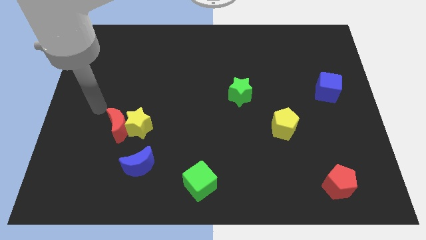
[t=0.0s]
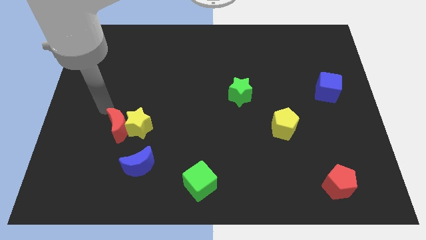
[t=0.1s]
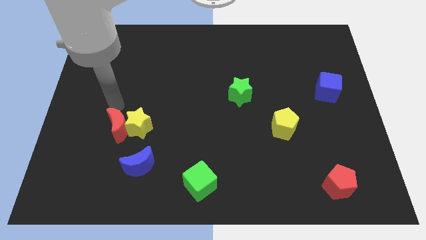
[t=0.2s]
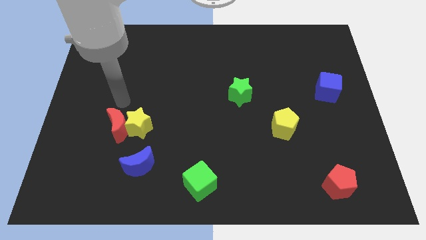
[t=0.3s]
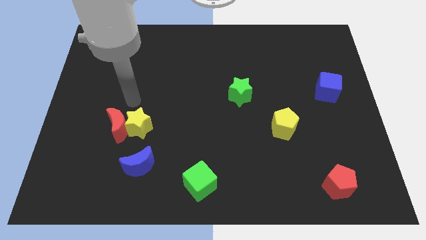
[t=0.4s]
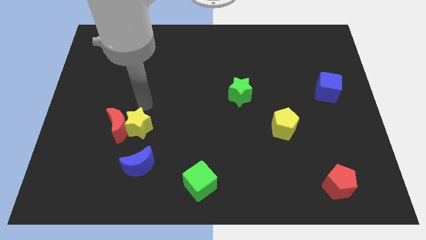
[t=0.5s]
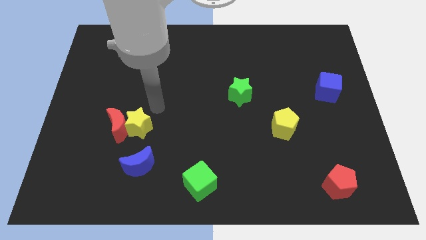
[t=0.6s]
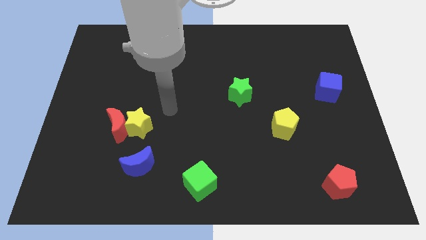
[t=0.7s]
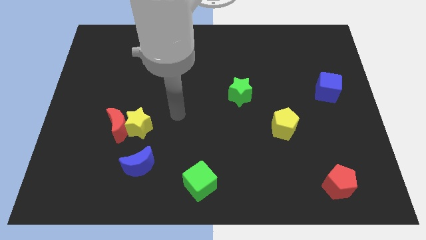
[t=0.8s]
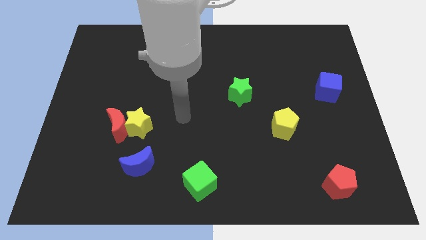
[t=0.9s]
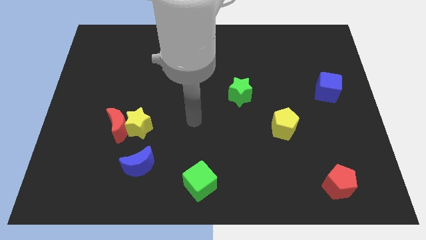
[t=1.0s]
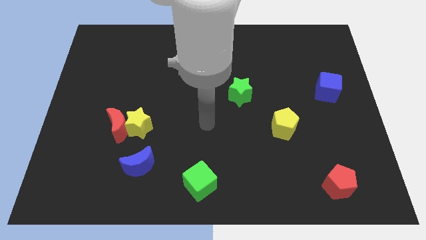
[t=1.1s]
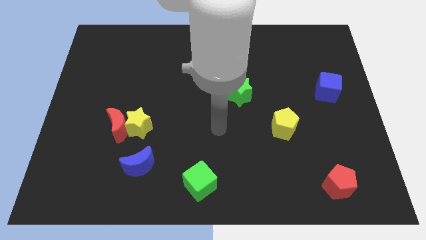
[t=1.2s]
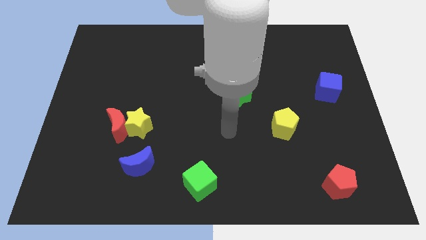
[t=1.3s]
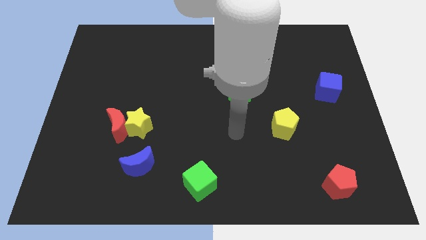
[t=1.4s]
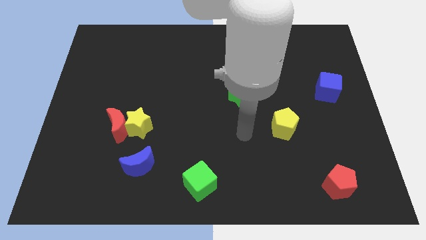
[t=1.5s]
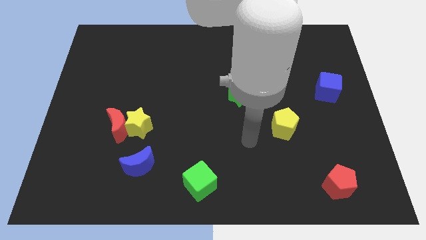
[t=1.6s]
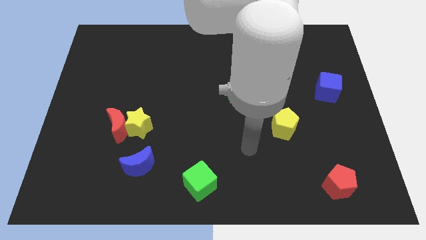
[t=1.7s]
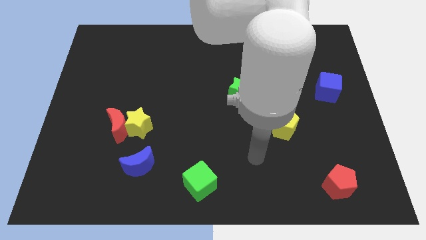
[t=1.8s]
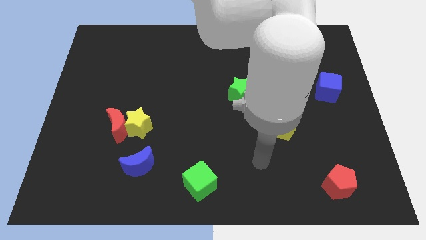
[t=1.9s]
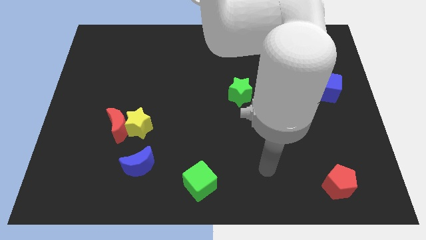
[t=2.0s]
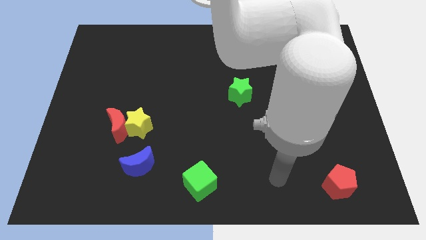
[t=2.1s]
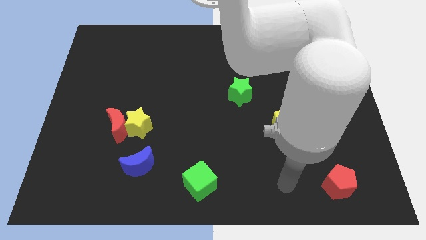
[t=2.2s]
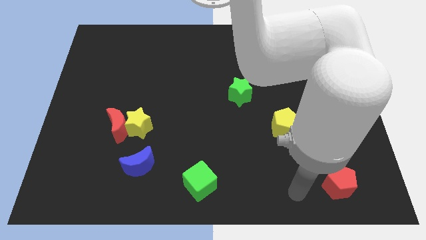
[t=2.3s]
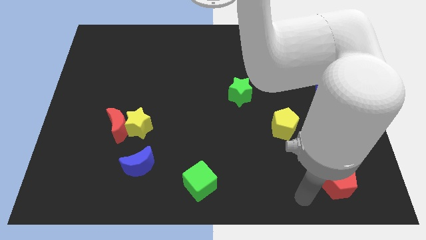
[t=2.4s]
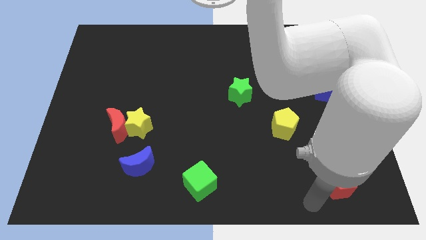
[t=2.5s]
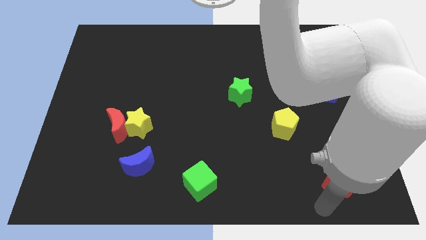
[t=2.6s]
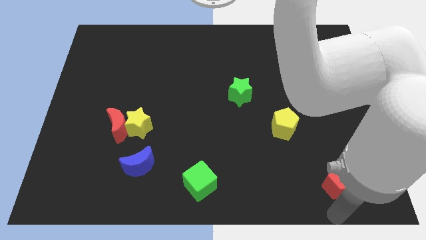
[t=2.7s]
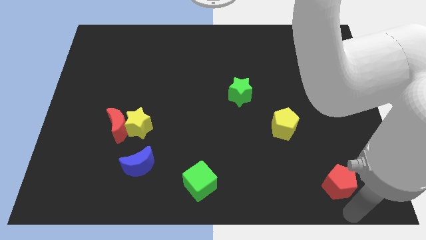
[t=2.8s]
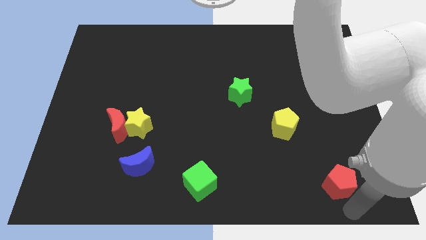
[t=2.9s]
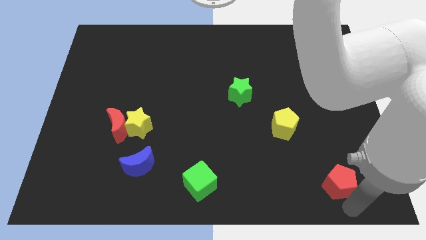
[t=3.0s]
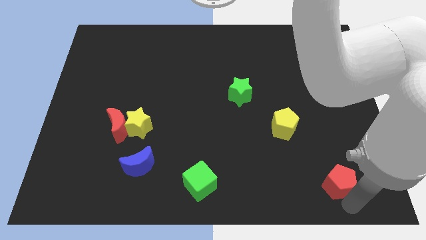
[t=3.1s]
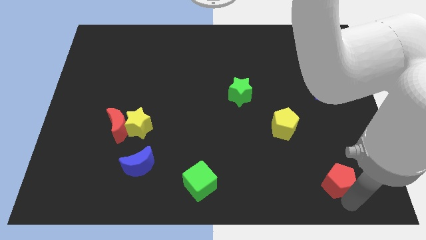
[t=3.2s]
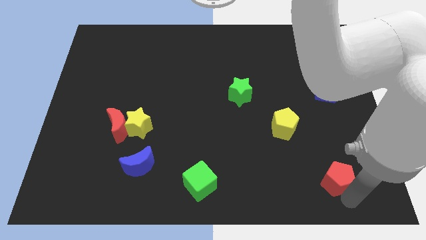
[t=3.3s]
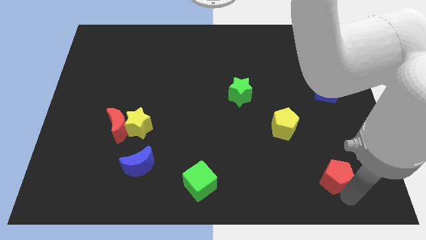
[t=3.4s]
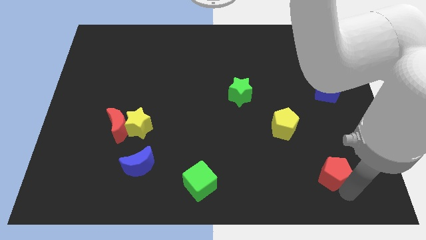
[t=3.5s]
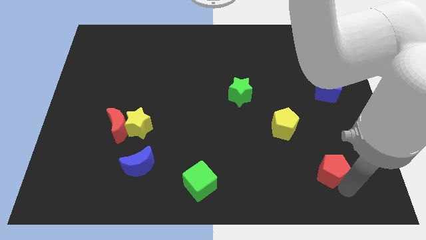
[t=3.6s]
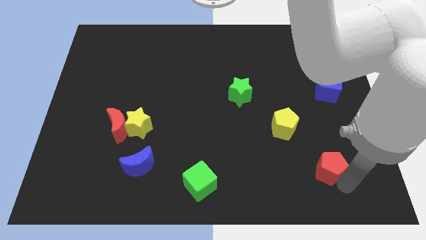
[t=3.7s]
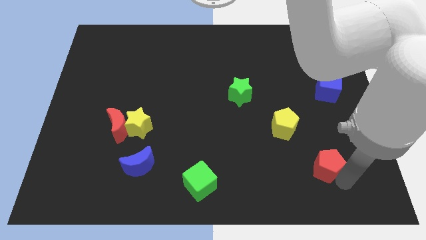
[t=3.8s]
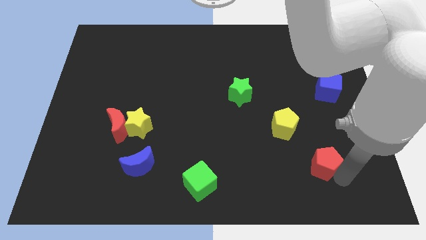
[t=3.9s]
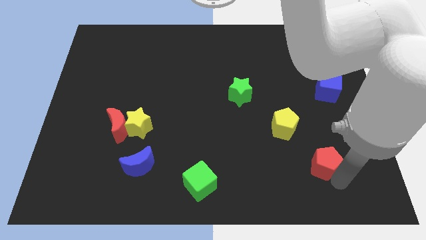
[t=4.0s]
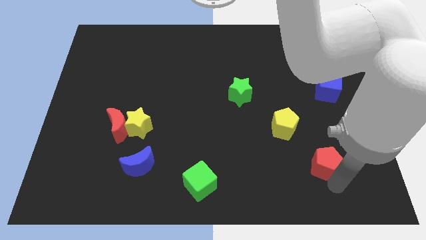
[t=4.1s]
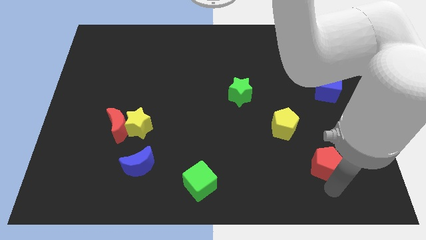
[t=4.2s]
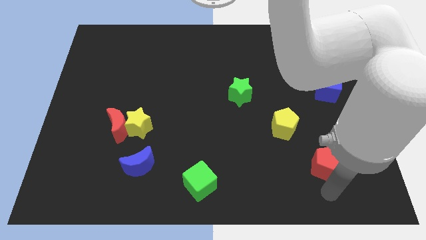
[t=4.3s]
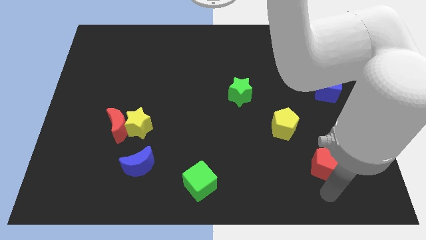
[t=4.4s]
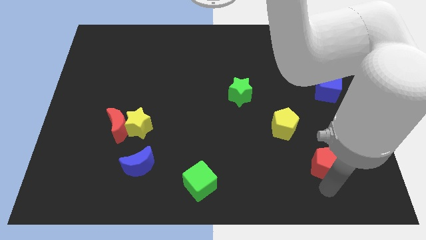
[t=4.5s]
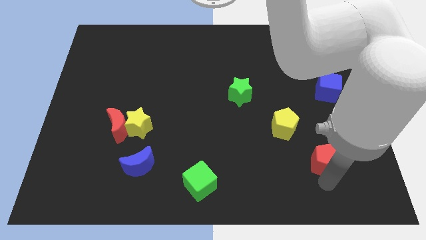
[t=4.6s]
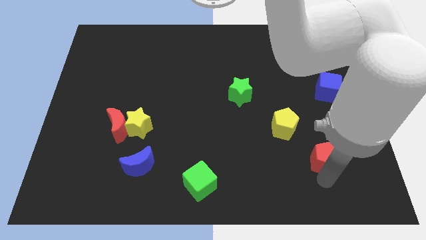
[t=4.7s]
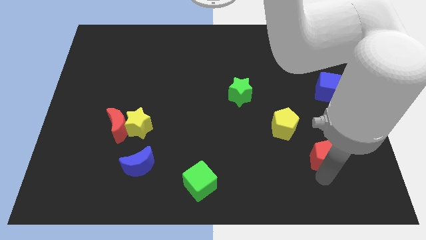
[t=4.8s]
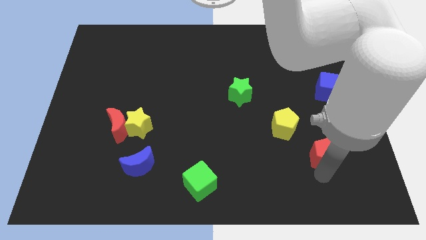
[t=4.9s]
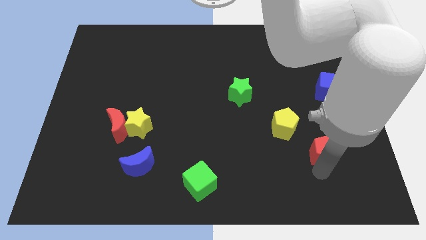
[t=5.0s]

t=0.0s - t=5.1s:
slightly push the red pentagon up

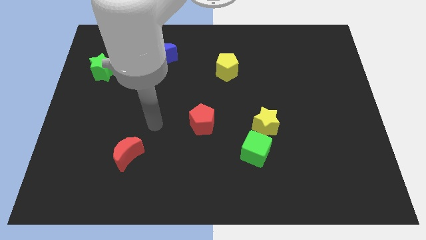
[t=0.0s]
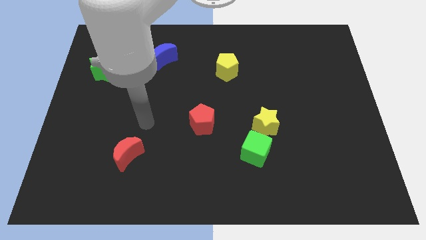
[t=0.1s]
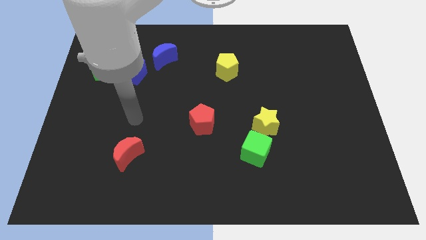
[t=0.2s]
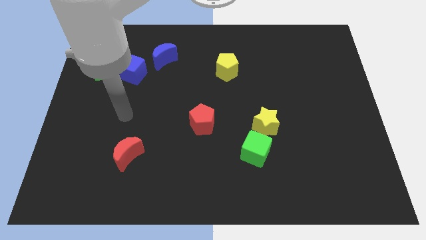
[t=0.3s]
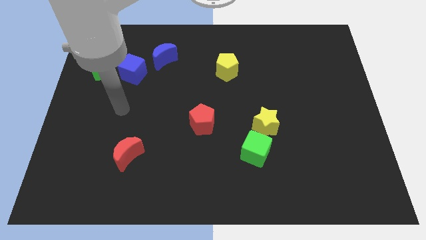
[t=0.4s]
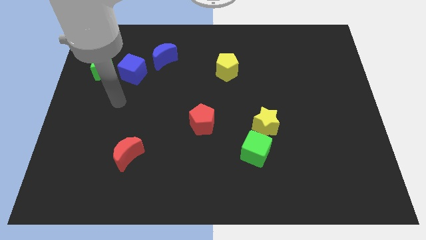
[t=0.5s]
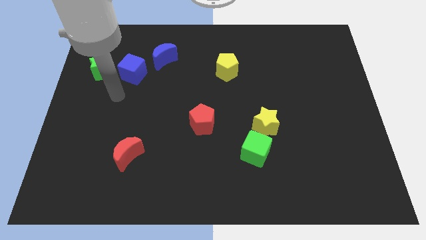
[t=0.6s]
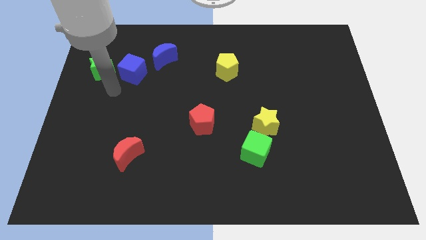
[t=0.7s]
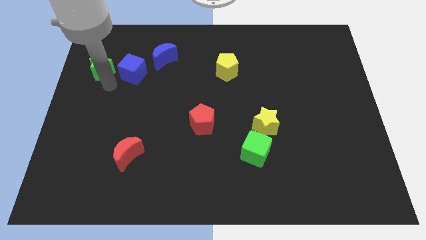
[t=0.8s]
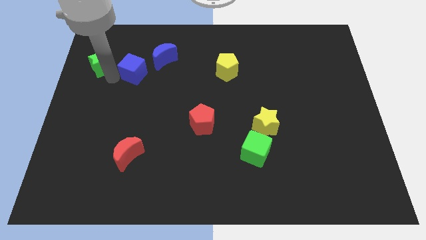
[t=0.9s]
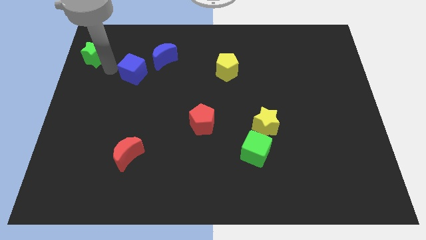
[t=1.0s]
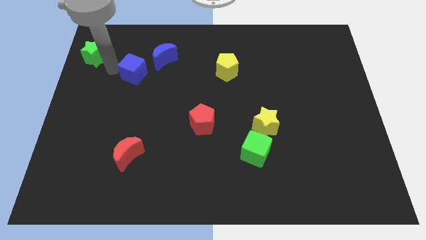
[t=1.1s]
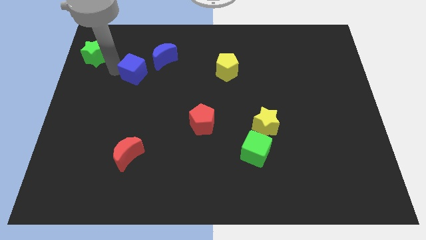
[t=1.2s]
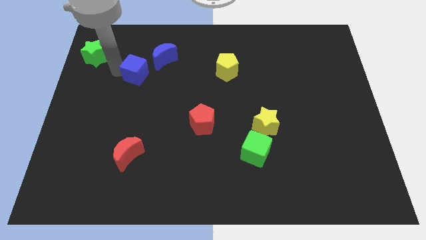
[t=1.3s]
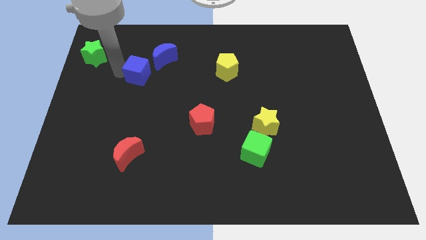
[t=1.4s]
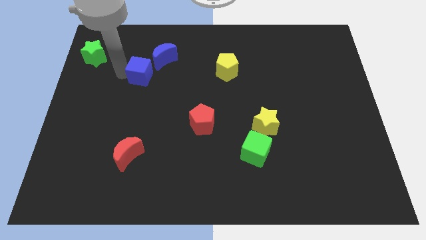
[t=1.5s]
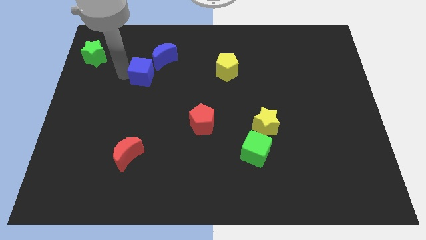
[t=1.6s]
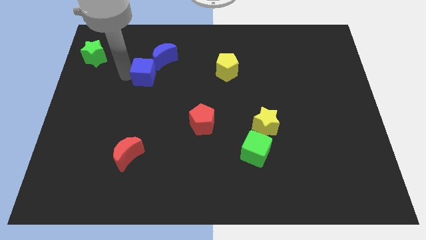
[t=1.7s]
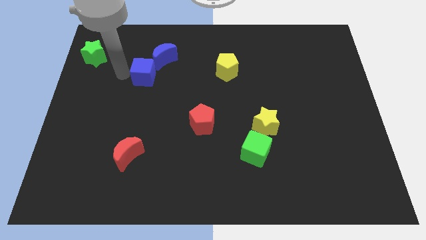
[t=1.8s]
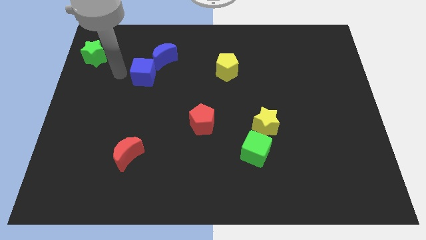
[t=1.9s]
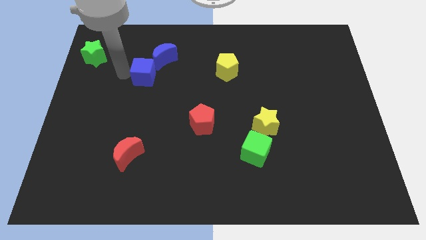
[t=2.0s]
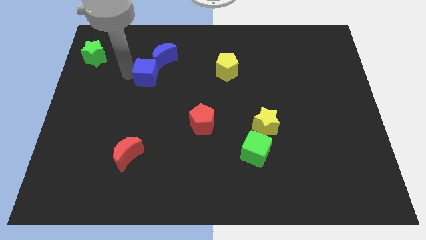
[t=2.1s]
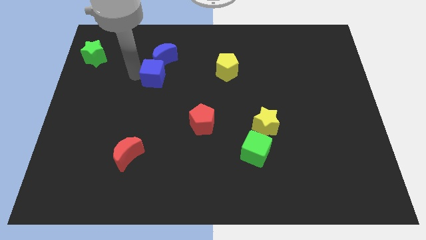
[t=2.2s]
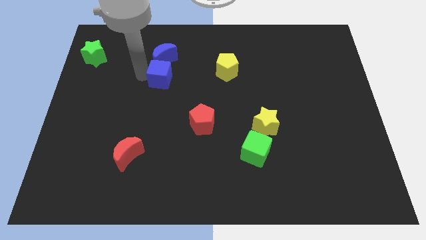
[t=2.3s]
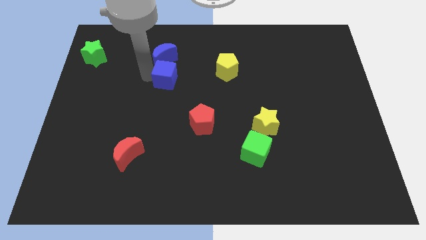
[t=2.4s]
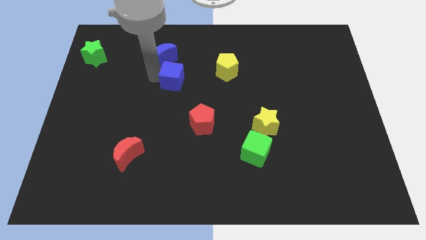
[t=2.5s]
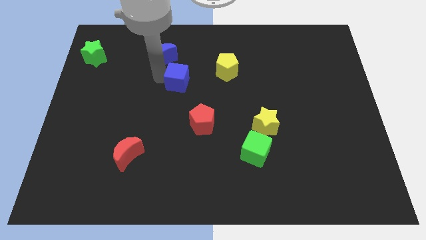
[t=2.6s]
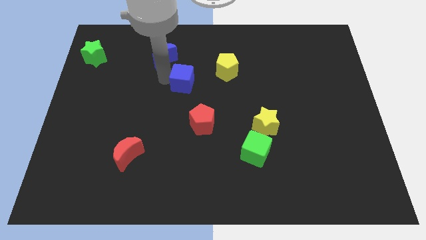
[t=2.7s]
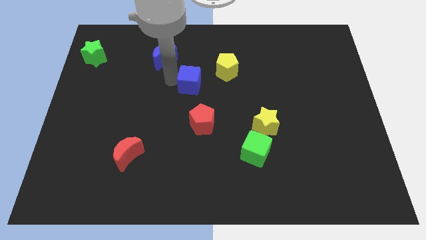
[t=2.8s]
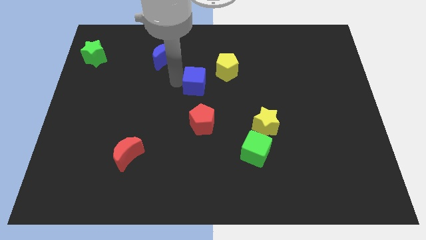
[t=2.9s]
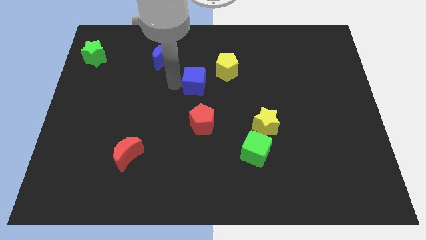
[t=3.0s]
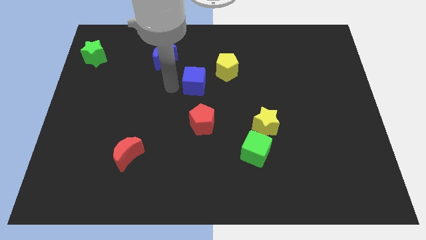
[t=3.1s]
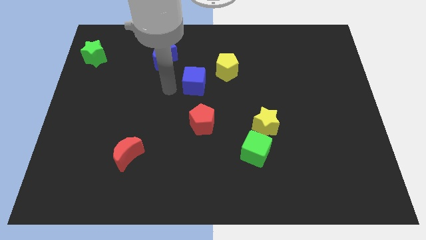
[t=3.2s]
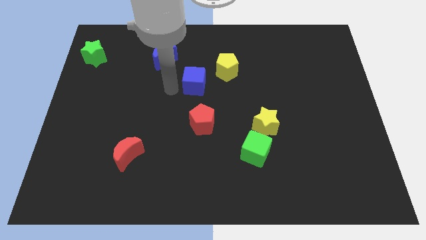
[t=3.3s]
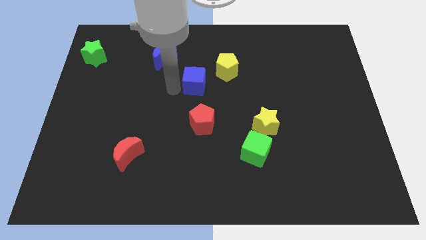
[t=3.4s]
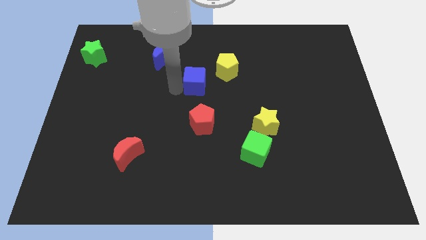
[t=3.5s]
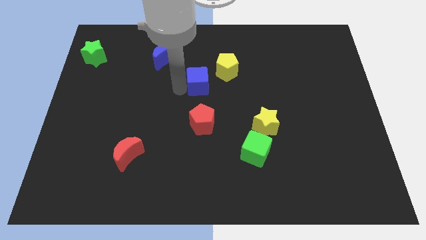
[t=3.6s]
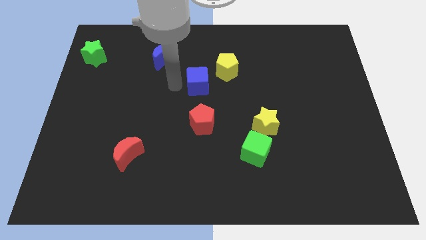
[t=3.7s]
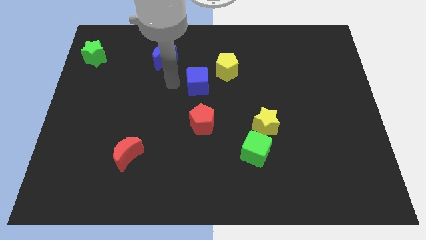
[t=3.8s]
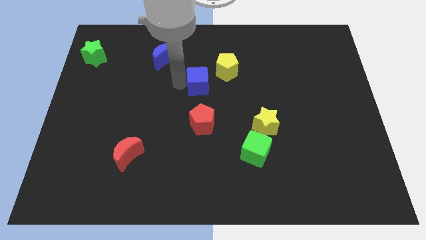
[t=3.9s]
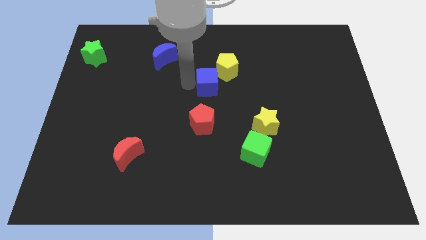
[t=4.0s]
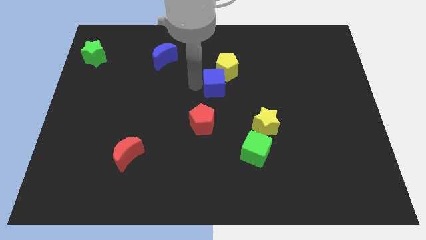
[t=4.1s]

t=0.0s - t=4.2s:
move the blue cube to the right
